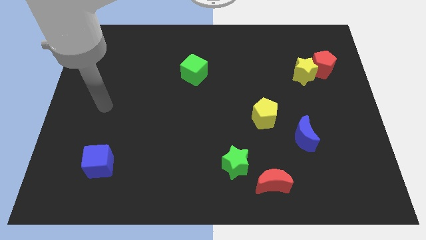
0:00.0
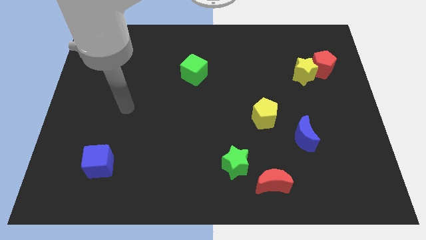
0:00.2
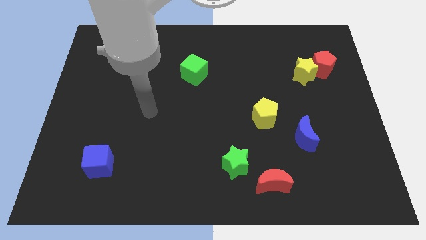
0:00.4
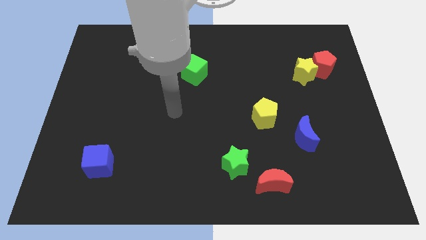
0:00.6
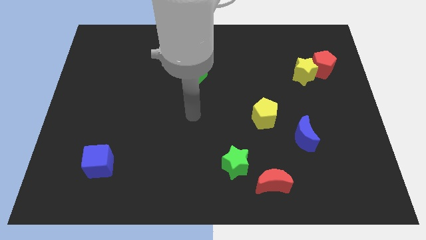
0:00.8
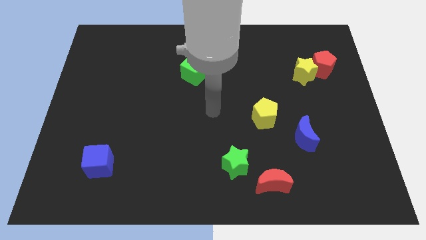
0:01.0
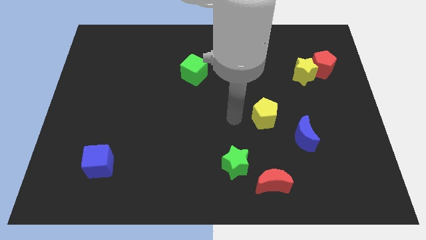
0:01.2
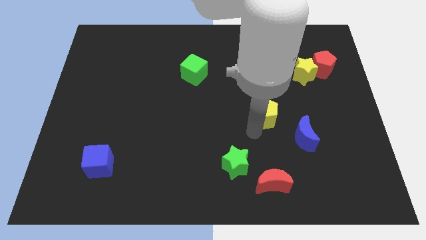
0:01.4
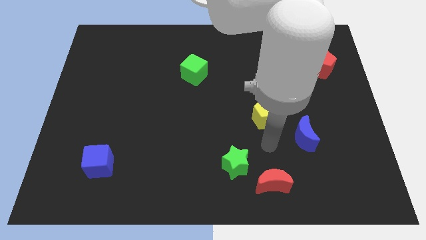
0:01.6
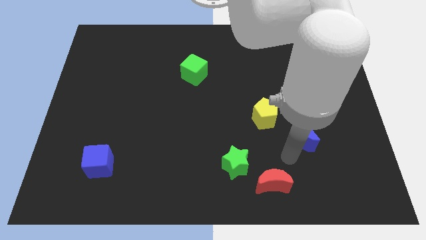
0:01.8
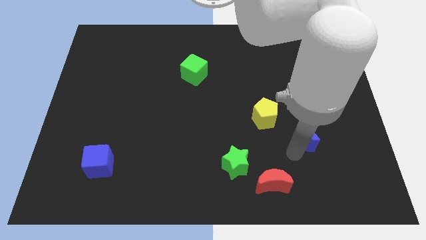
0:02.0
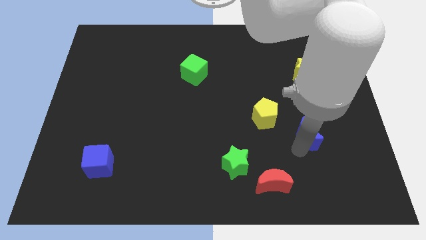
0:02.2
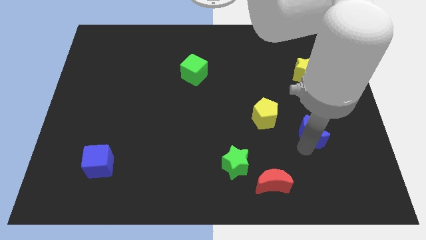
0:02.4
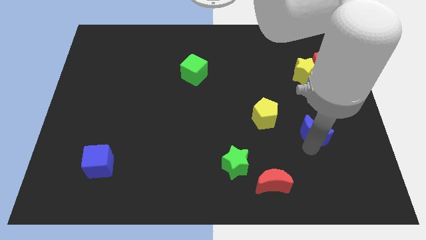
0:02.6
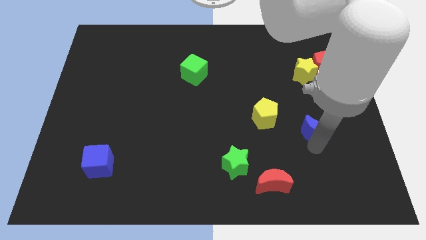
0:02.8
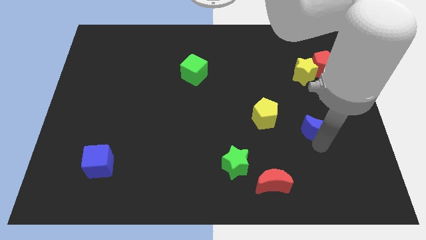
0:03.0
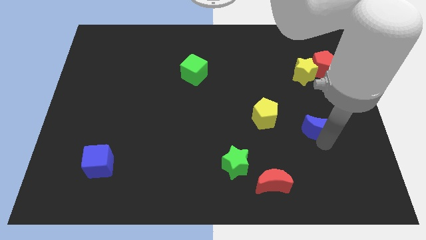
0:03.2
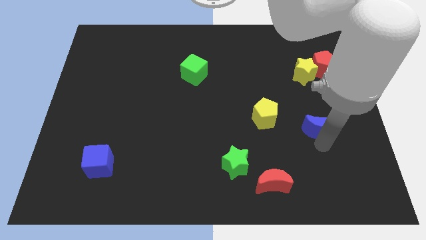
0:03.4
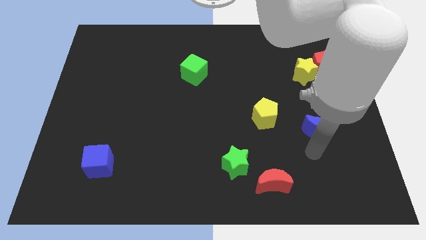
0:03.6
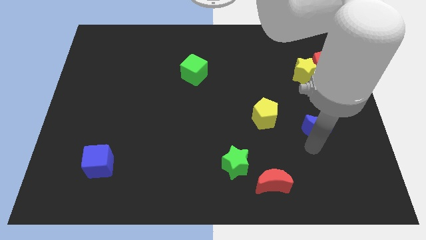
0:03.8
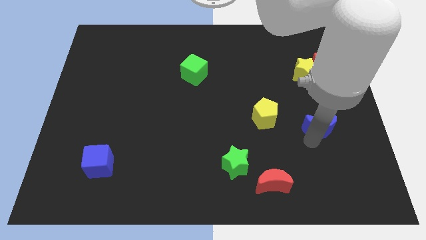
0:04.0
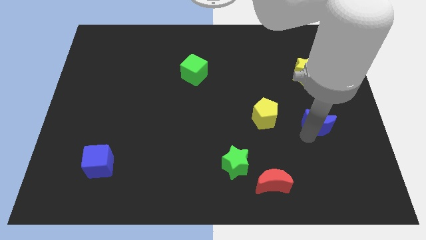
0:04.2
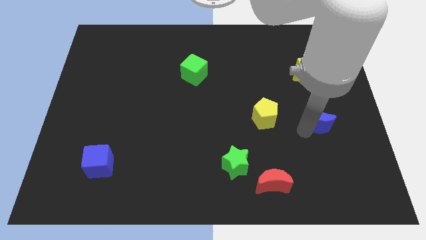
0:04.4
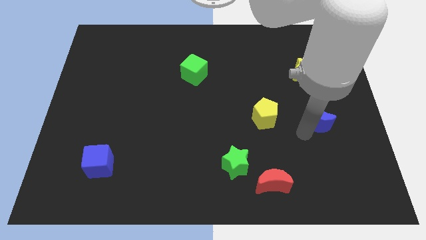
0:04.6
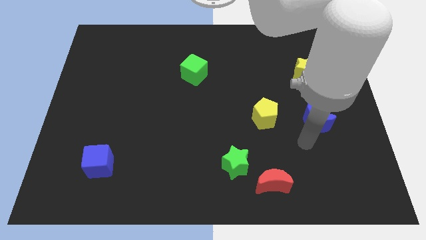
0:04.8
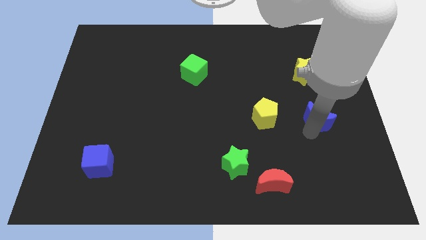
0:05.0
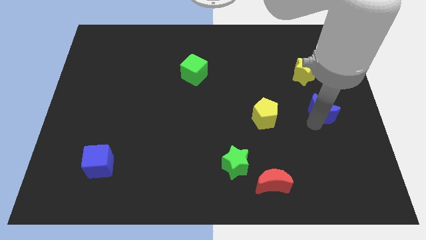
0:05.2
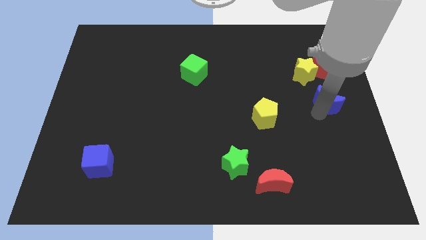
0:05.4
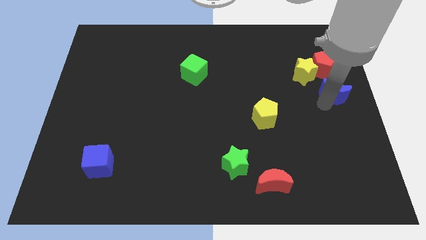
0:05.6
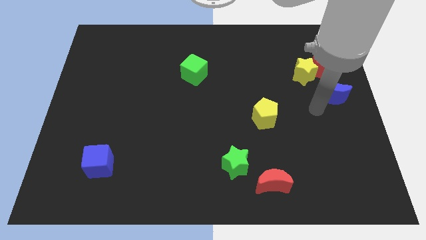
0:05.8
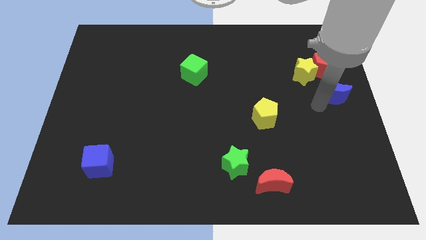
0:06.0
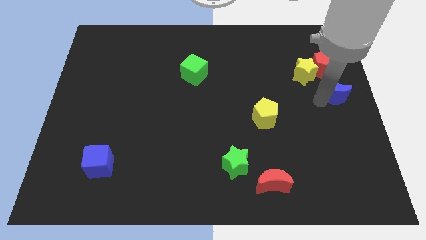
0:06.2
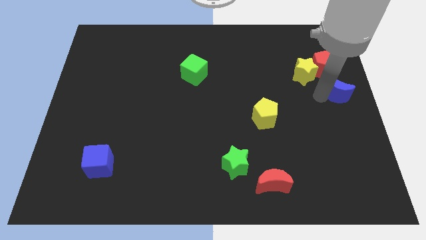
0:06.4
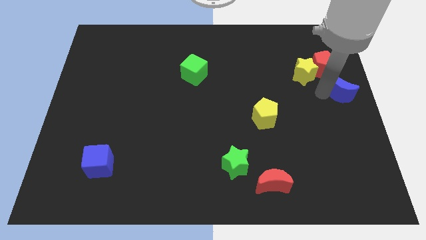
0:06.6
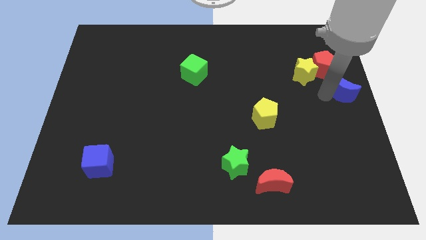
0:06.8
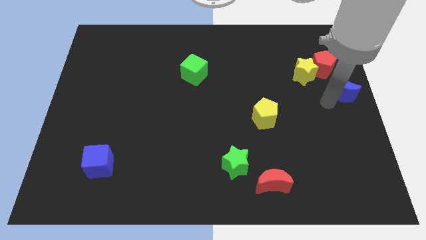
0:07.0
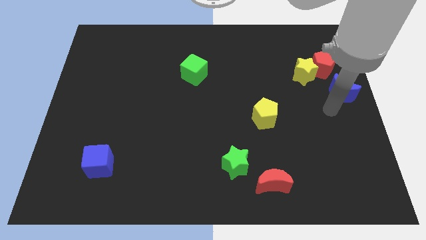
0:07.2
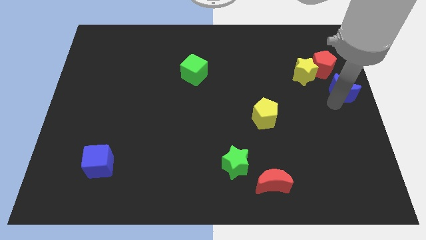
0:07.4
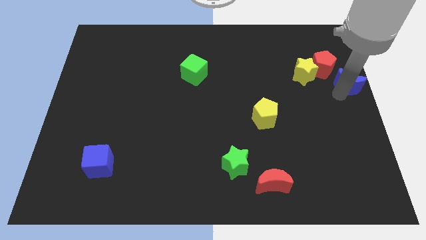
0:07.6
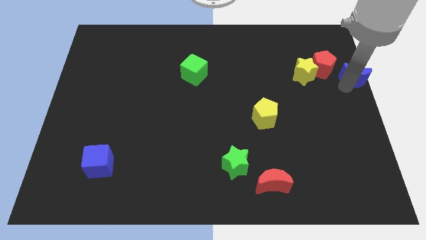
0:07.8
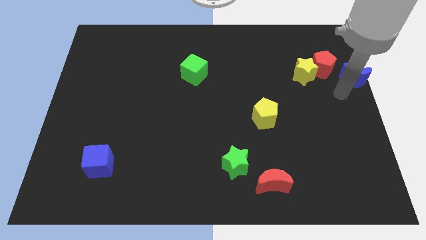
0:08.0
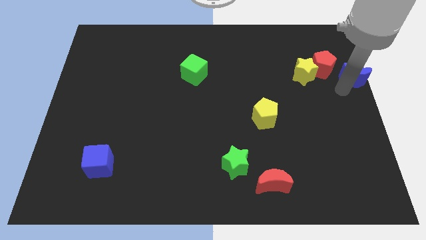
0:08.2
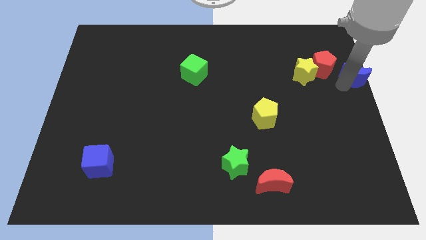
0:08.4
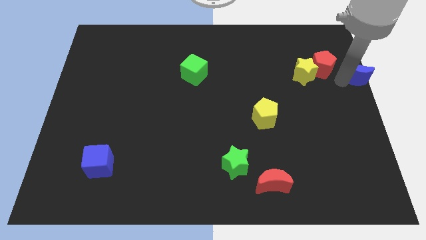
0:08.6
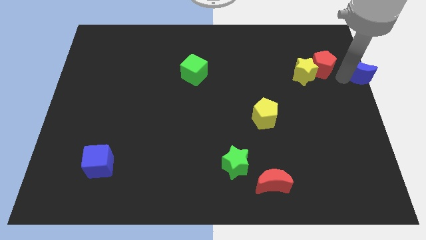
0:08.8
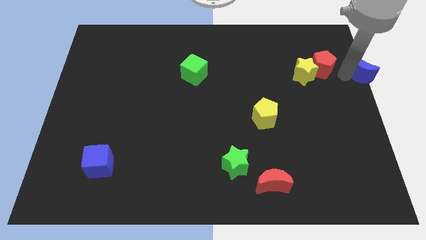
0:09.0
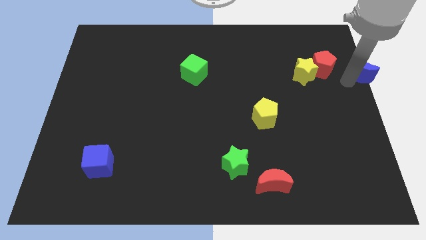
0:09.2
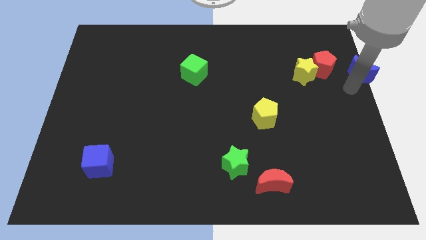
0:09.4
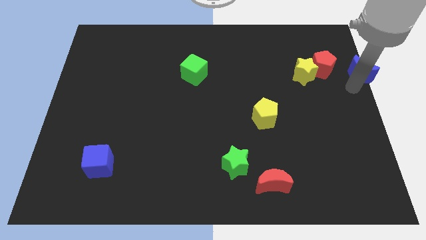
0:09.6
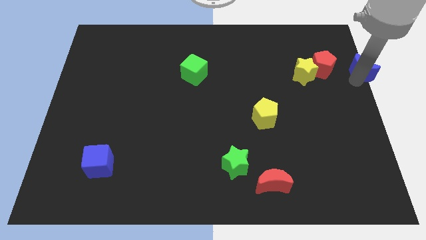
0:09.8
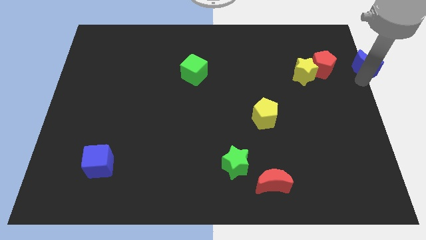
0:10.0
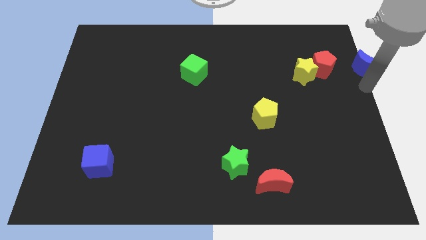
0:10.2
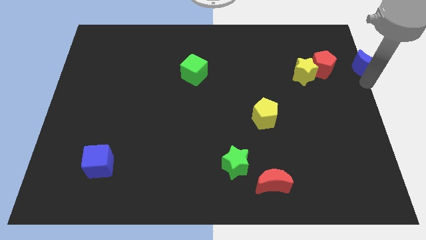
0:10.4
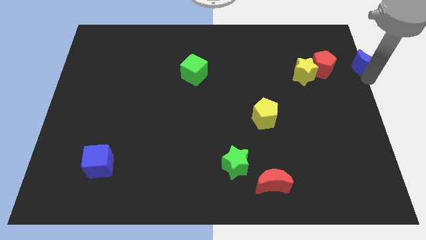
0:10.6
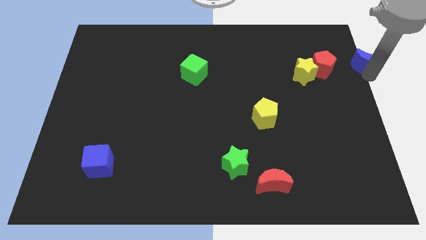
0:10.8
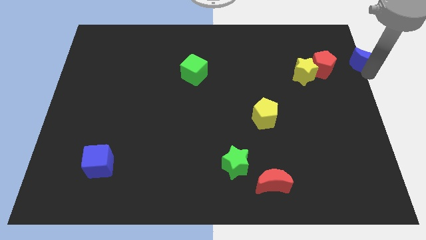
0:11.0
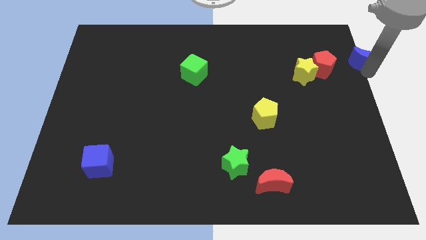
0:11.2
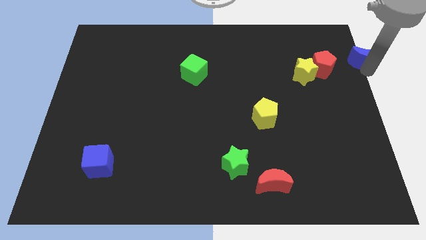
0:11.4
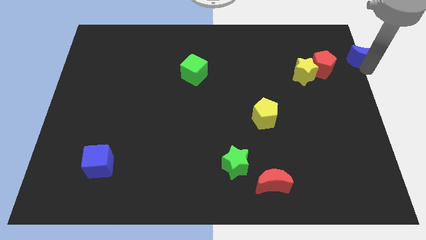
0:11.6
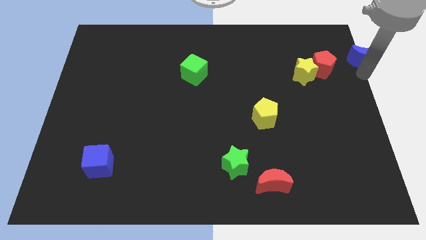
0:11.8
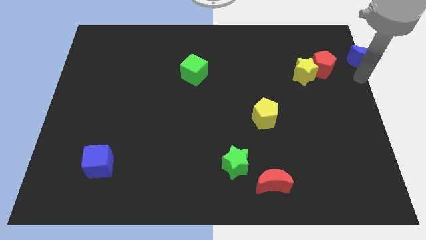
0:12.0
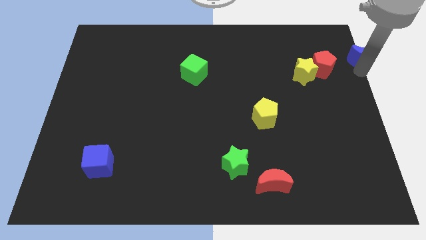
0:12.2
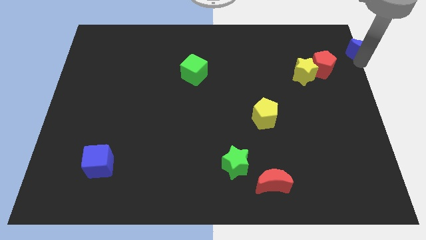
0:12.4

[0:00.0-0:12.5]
put the blue moon to the top right corner

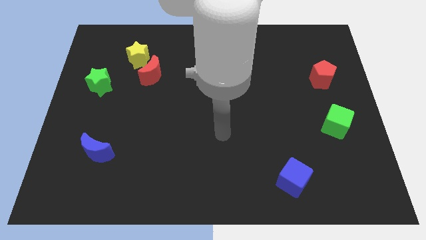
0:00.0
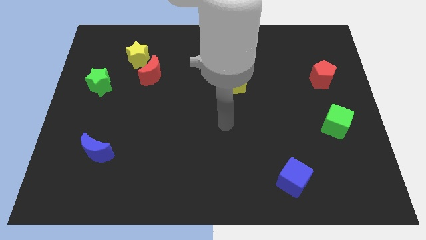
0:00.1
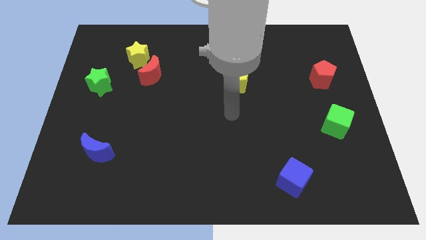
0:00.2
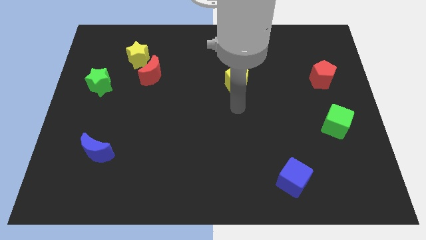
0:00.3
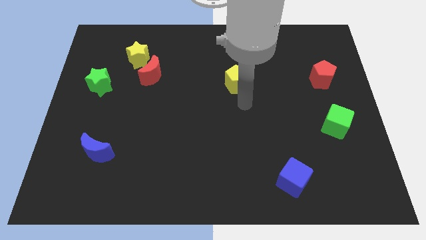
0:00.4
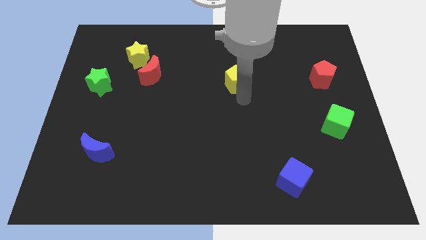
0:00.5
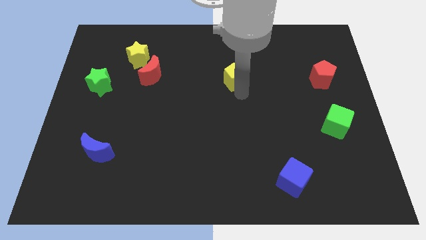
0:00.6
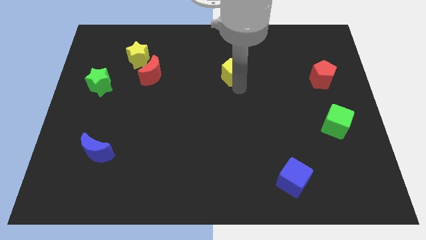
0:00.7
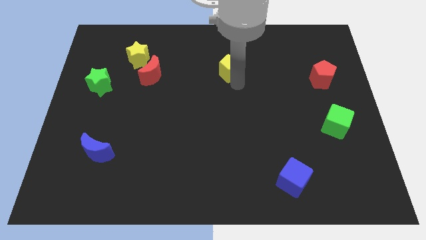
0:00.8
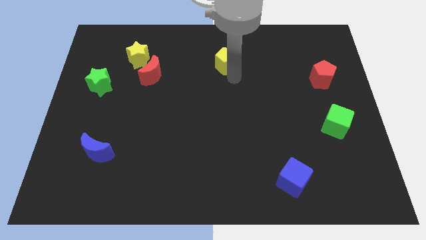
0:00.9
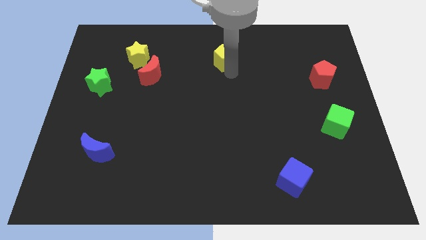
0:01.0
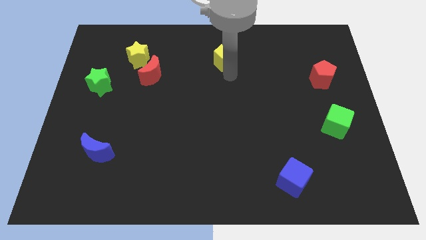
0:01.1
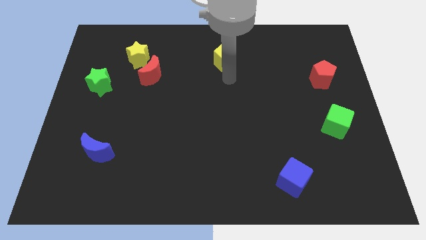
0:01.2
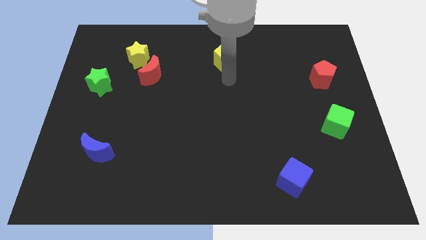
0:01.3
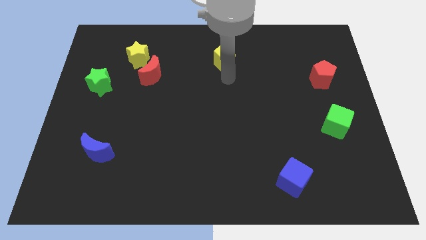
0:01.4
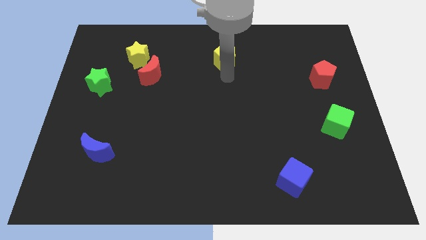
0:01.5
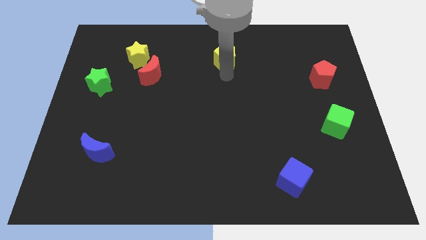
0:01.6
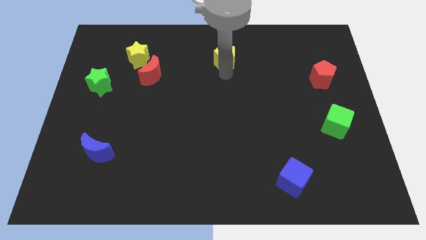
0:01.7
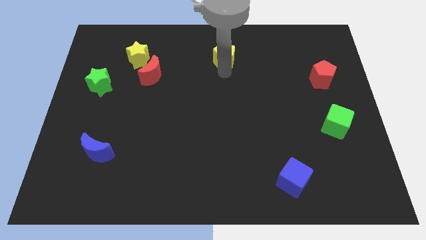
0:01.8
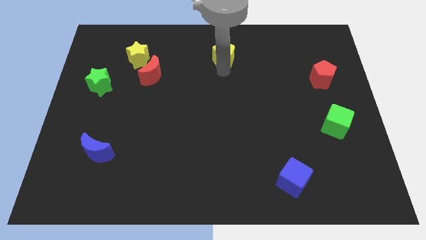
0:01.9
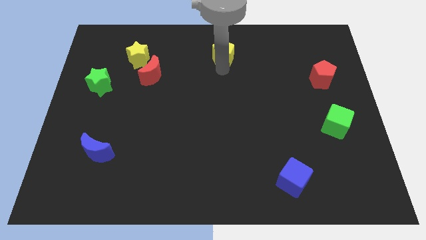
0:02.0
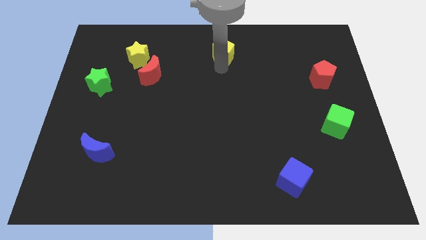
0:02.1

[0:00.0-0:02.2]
move the yellow pentagon to the top
